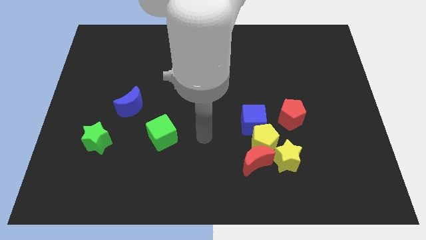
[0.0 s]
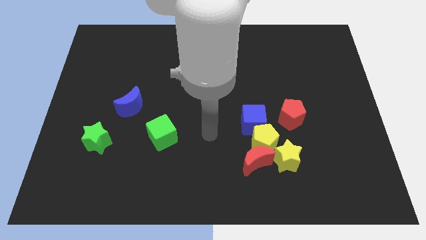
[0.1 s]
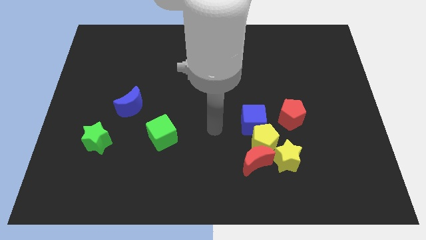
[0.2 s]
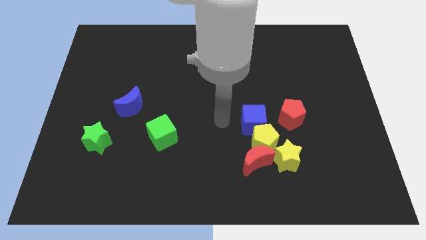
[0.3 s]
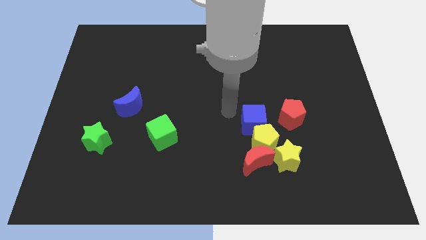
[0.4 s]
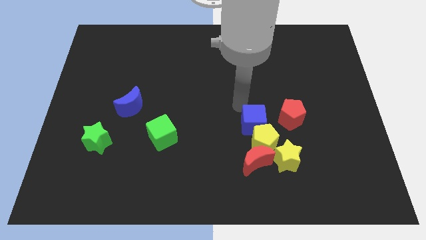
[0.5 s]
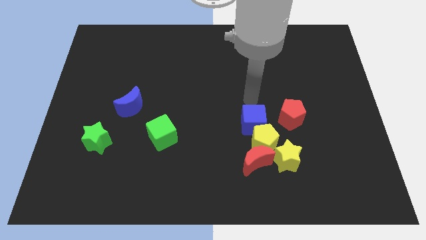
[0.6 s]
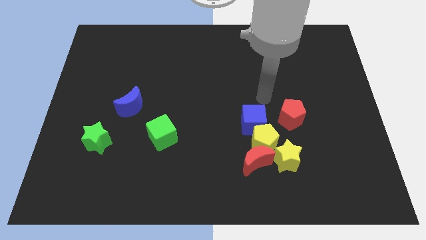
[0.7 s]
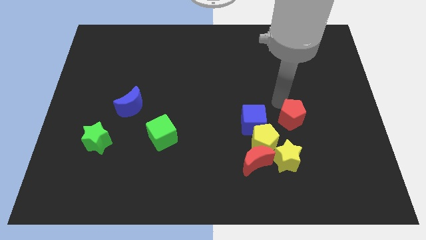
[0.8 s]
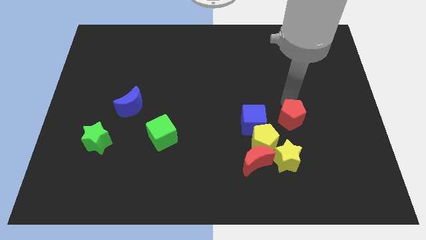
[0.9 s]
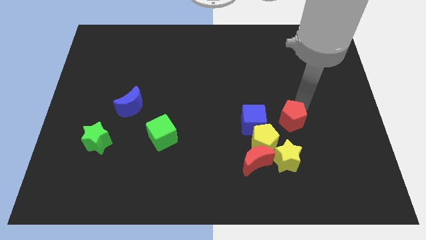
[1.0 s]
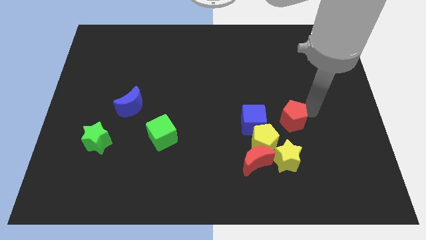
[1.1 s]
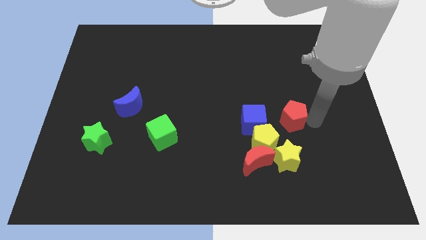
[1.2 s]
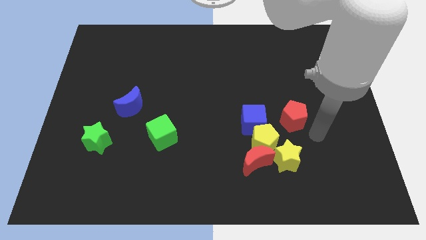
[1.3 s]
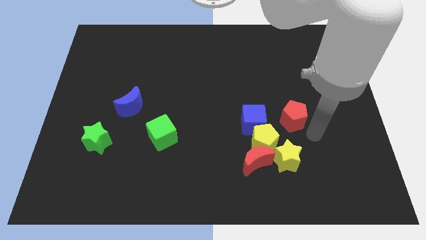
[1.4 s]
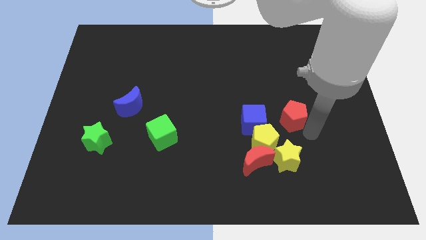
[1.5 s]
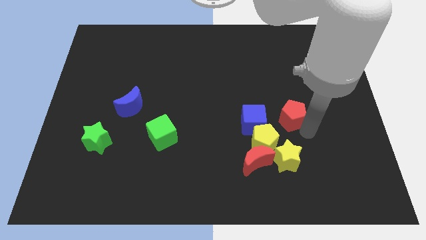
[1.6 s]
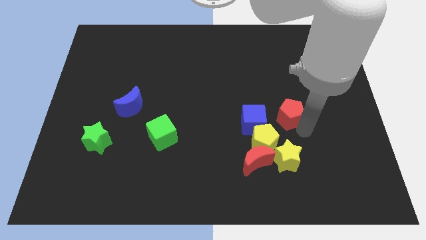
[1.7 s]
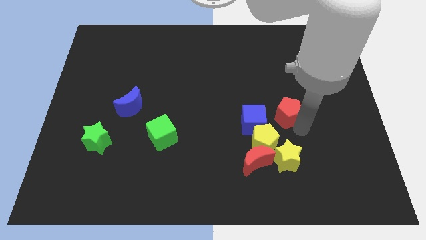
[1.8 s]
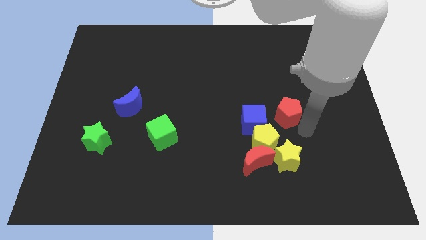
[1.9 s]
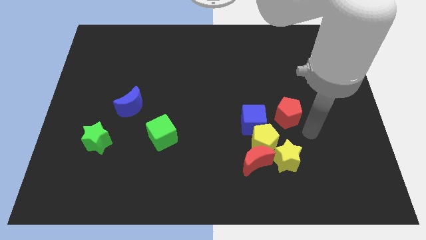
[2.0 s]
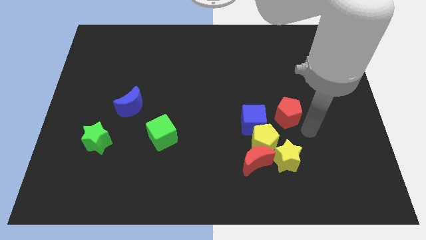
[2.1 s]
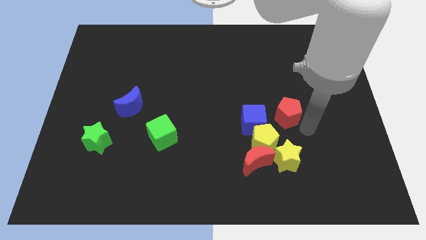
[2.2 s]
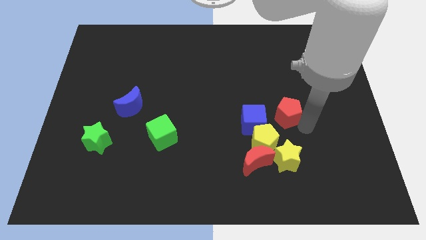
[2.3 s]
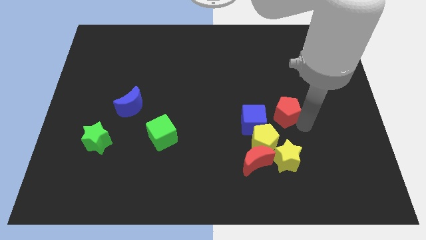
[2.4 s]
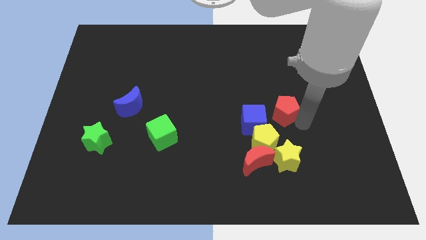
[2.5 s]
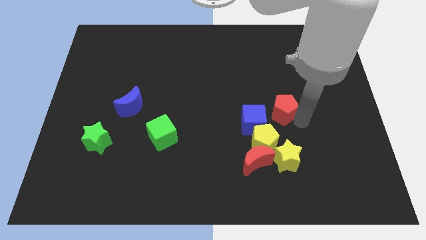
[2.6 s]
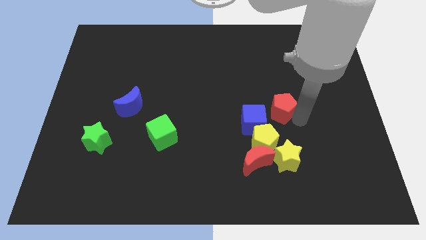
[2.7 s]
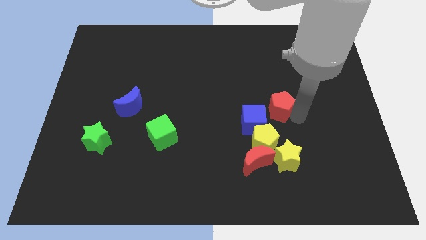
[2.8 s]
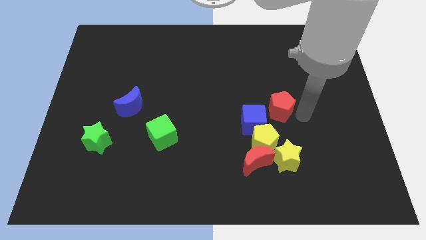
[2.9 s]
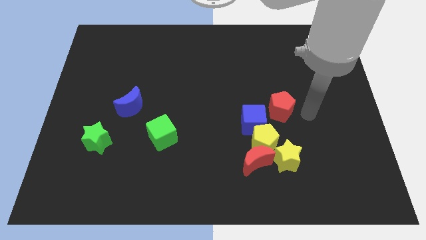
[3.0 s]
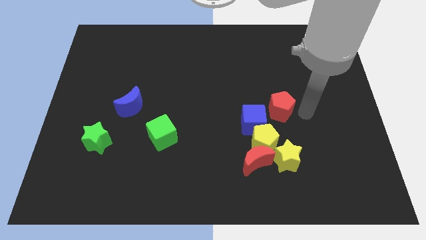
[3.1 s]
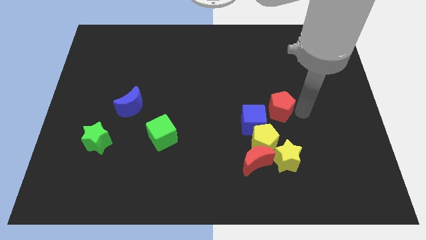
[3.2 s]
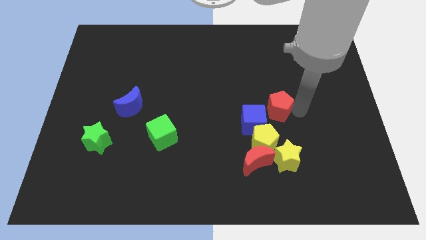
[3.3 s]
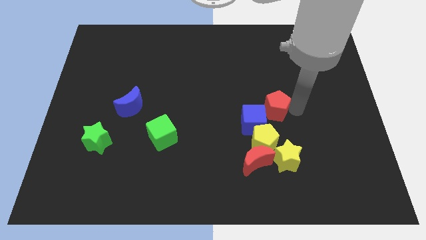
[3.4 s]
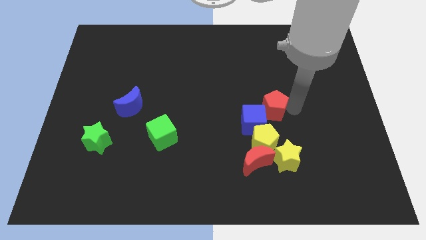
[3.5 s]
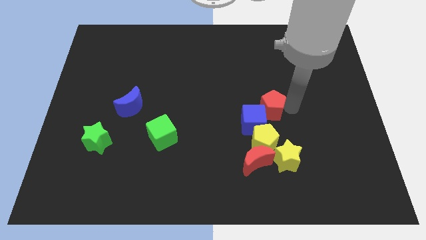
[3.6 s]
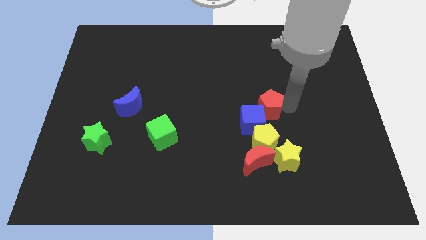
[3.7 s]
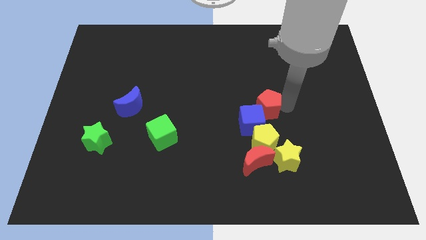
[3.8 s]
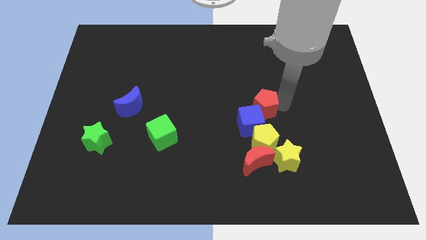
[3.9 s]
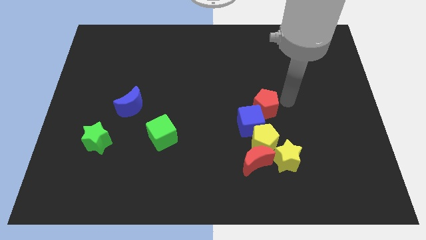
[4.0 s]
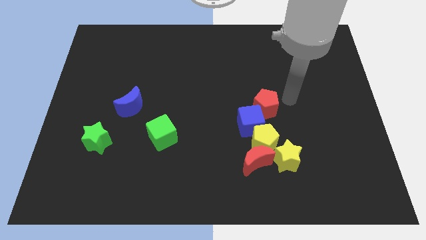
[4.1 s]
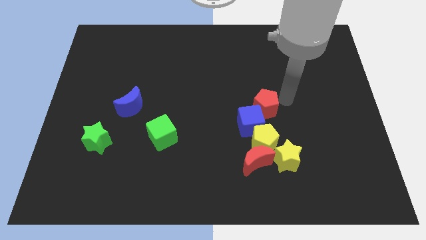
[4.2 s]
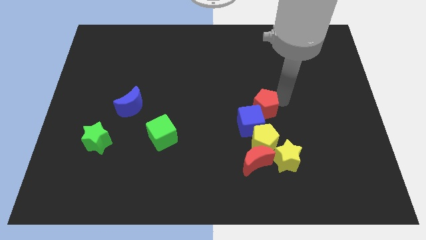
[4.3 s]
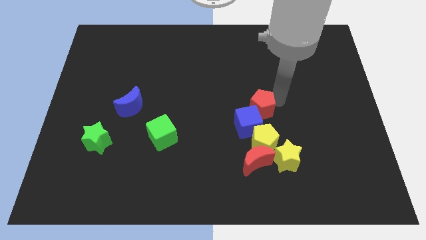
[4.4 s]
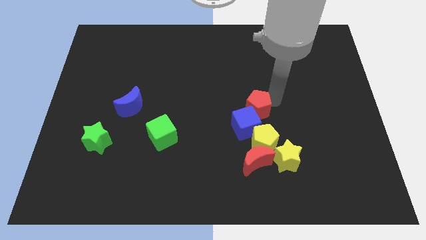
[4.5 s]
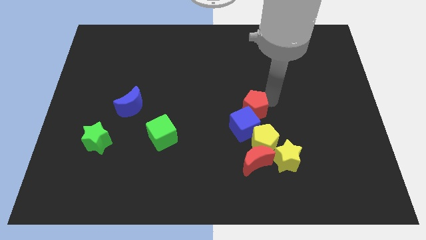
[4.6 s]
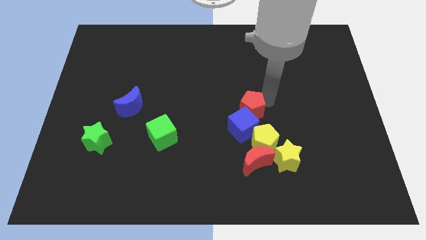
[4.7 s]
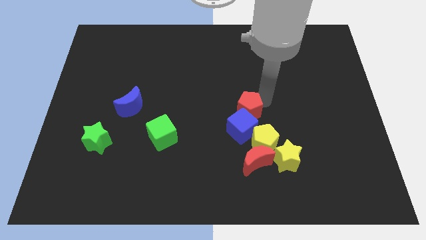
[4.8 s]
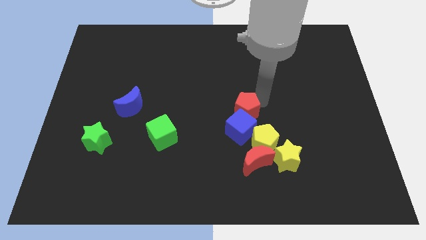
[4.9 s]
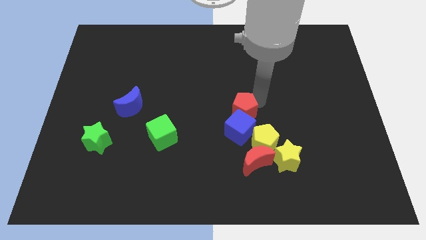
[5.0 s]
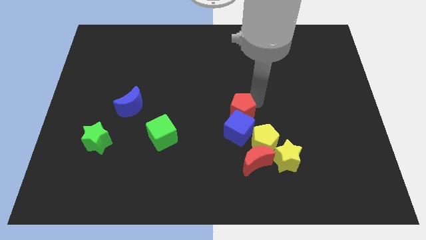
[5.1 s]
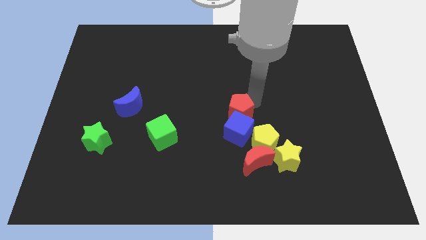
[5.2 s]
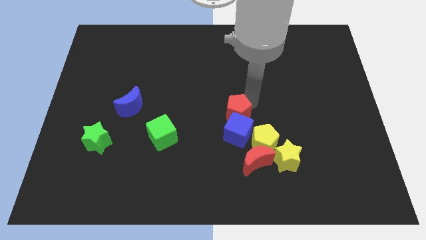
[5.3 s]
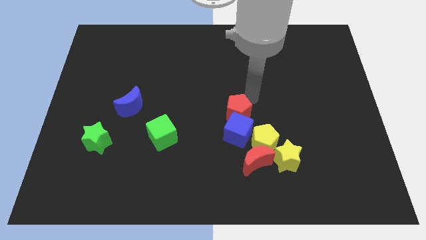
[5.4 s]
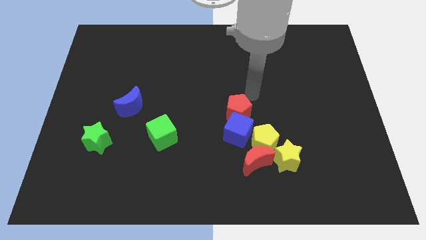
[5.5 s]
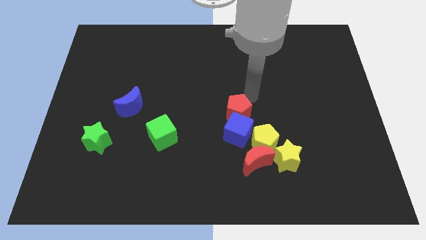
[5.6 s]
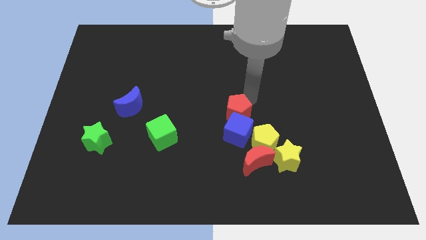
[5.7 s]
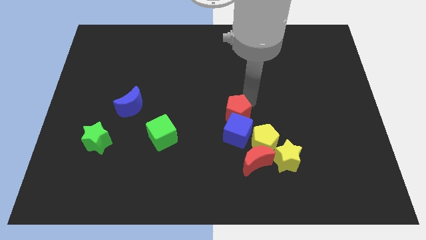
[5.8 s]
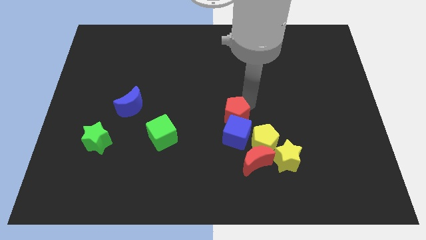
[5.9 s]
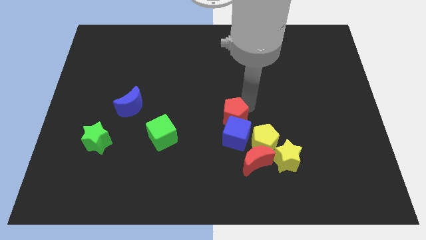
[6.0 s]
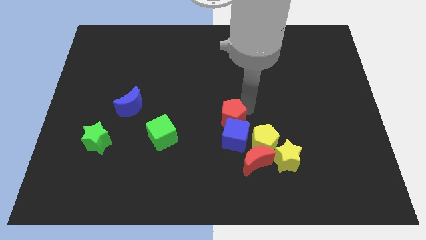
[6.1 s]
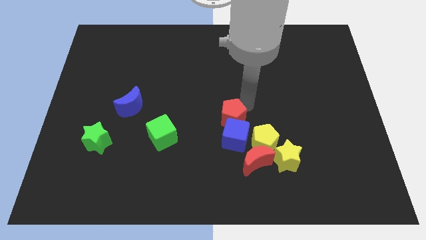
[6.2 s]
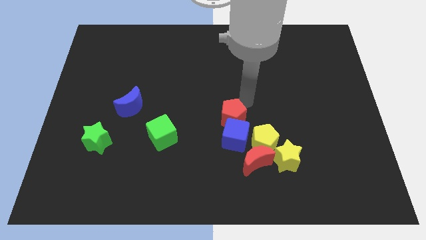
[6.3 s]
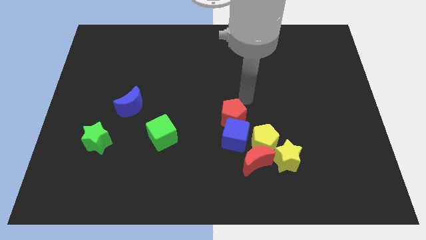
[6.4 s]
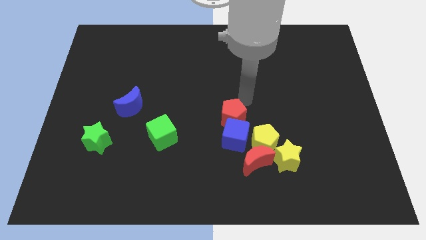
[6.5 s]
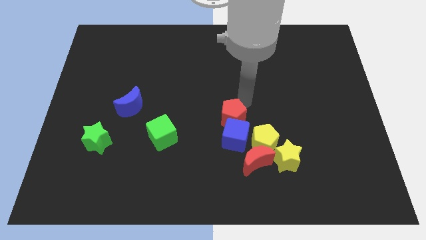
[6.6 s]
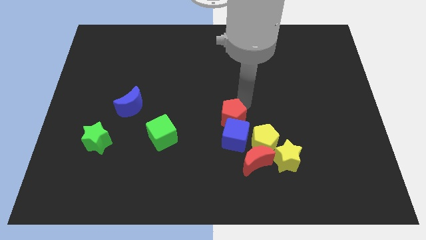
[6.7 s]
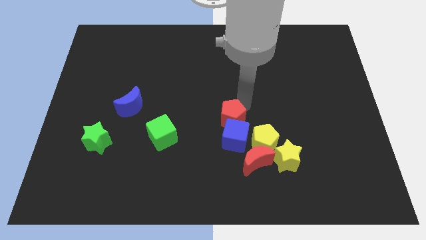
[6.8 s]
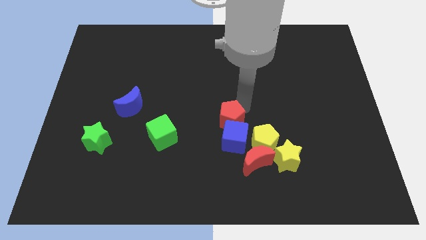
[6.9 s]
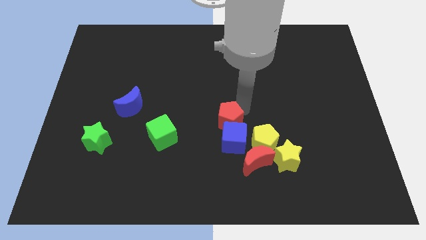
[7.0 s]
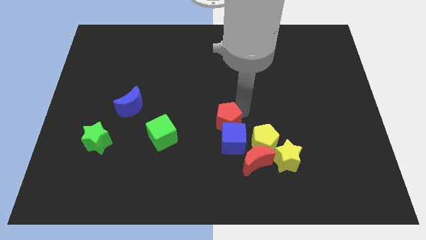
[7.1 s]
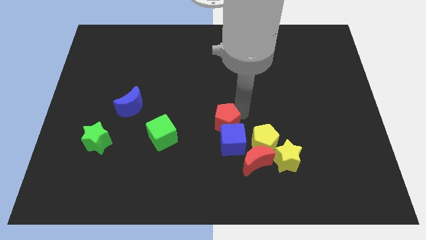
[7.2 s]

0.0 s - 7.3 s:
move the red pentagon a little downwards and then left

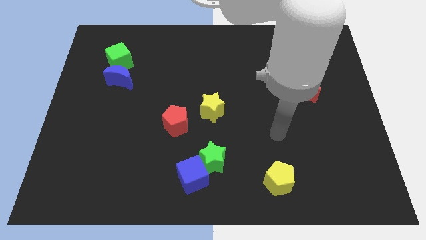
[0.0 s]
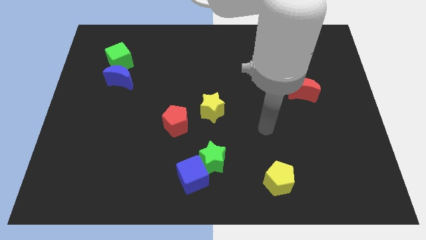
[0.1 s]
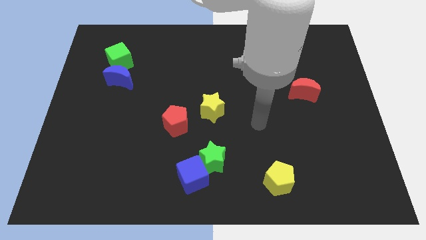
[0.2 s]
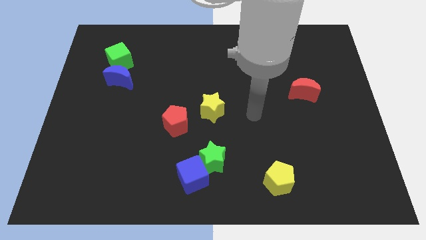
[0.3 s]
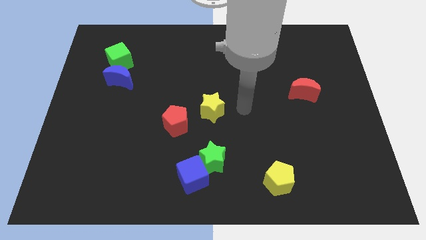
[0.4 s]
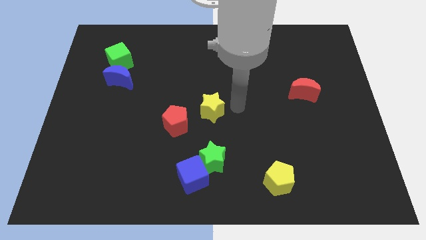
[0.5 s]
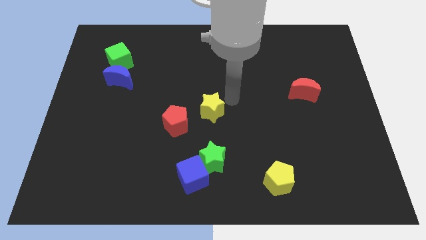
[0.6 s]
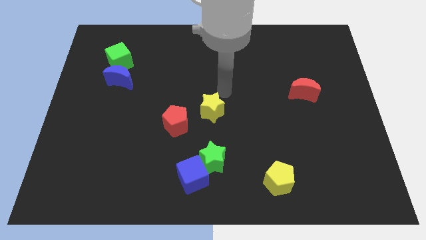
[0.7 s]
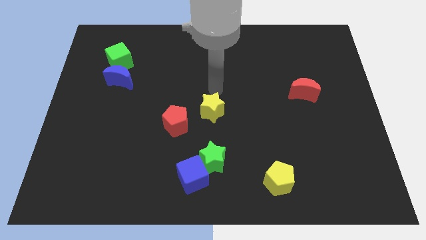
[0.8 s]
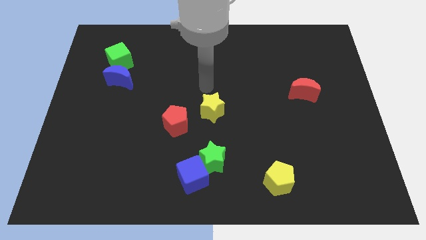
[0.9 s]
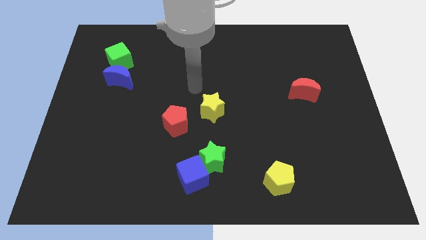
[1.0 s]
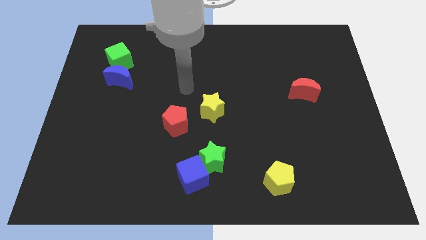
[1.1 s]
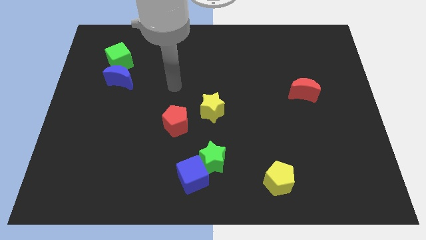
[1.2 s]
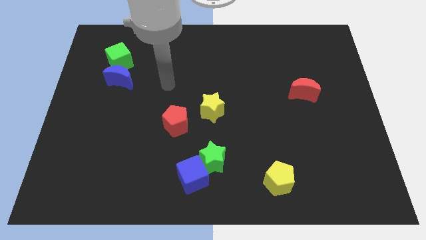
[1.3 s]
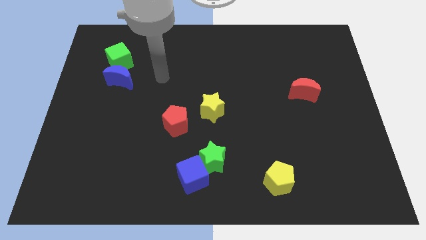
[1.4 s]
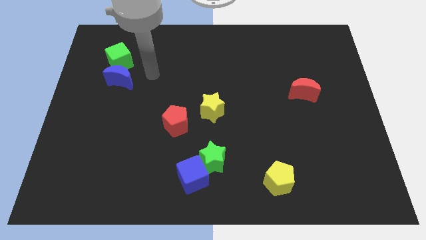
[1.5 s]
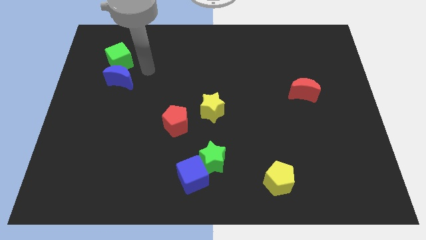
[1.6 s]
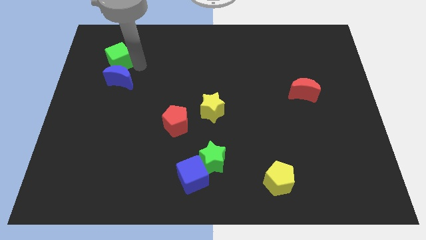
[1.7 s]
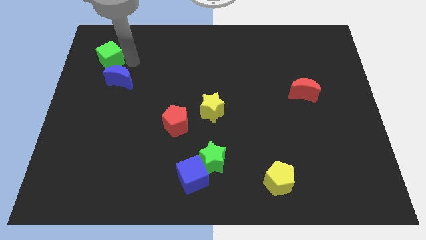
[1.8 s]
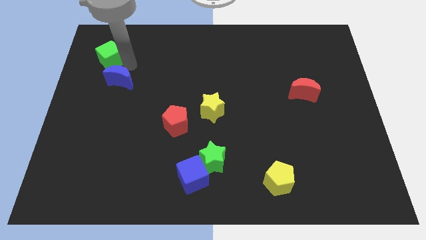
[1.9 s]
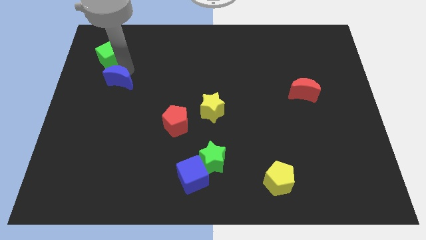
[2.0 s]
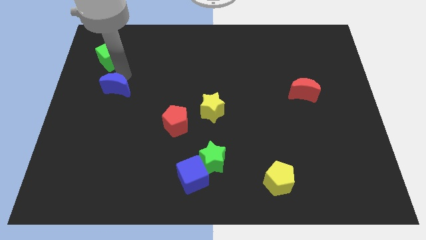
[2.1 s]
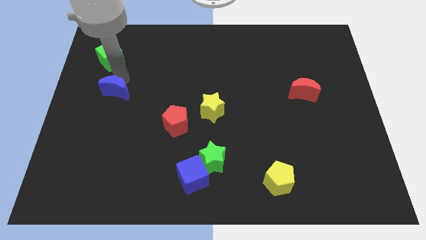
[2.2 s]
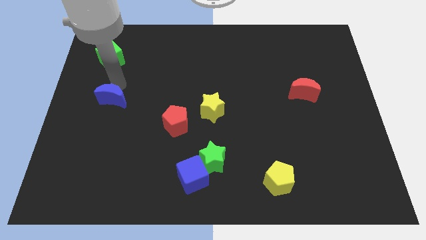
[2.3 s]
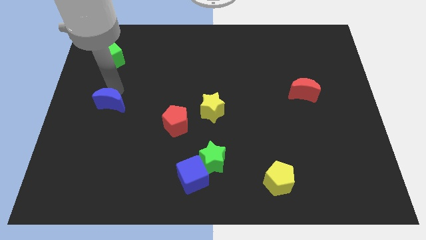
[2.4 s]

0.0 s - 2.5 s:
slide the blue moon downwards slightly
